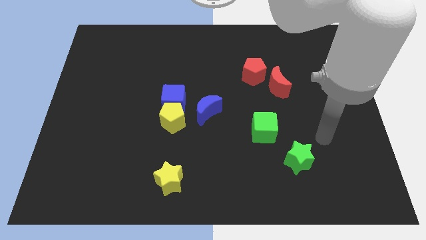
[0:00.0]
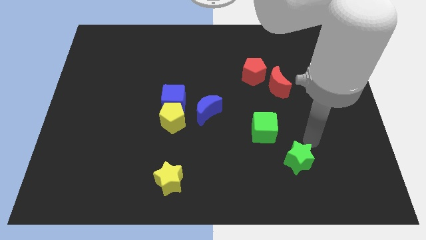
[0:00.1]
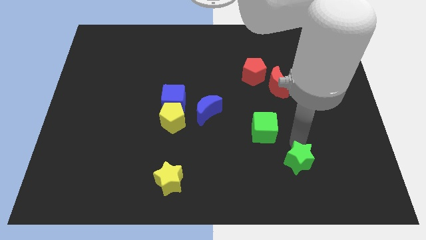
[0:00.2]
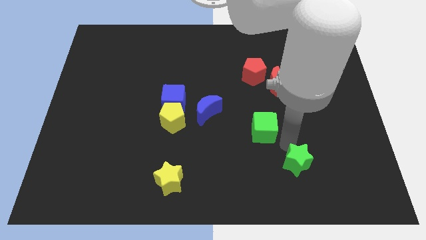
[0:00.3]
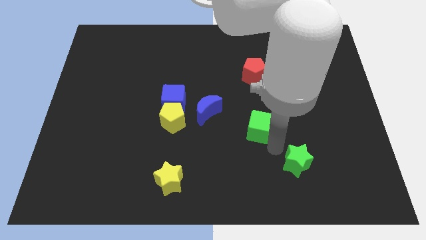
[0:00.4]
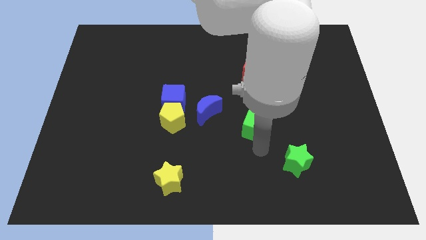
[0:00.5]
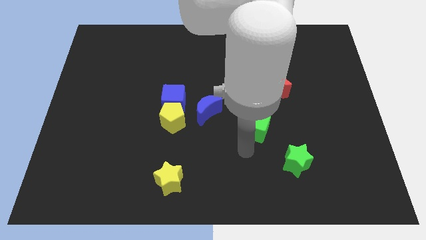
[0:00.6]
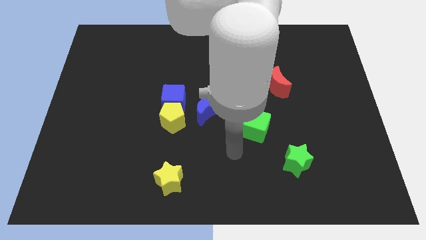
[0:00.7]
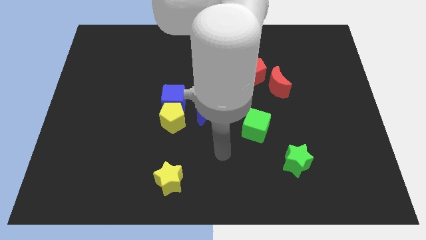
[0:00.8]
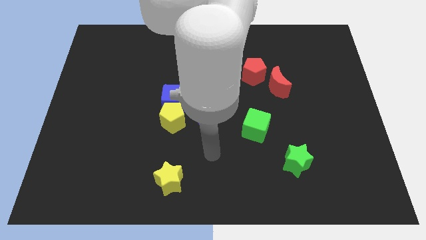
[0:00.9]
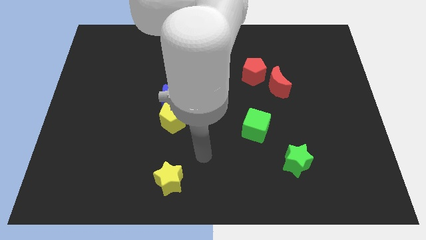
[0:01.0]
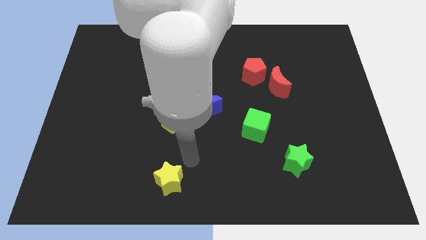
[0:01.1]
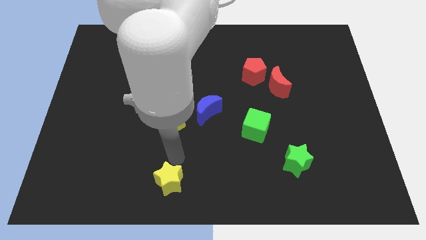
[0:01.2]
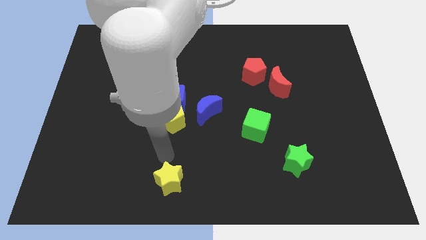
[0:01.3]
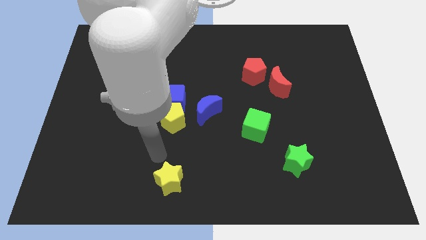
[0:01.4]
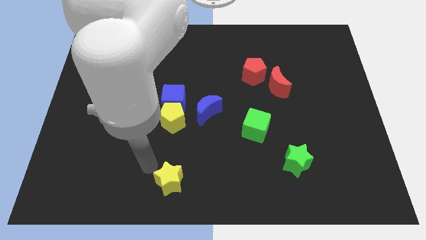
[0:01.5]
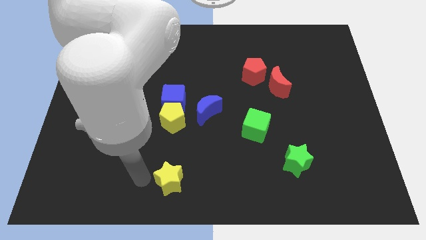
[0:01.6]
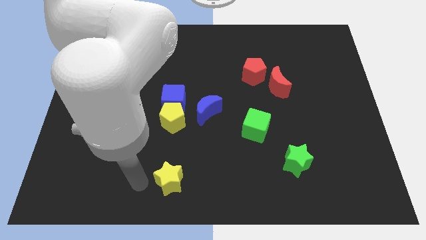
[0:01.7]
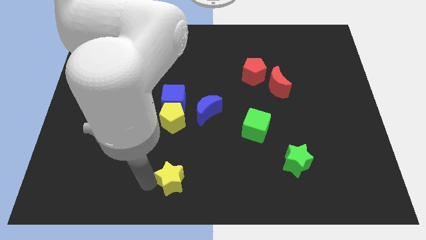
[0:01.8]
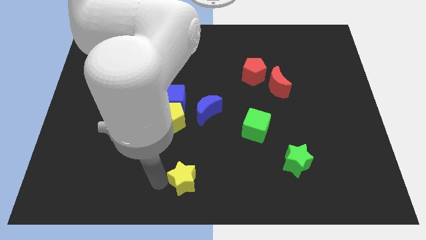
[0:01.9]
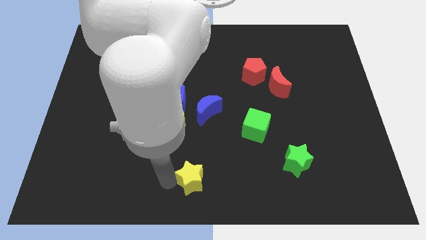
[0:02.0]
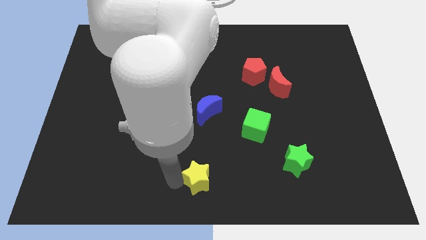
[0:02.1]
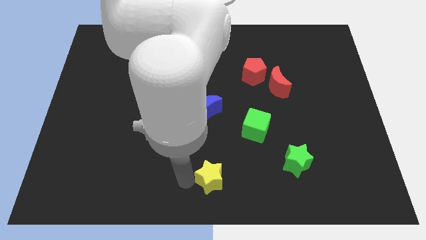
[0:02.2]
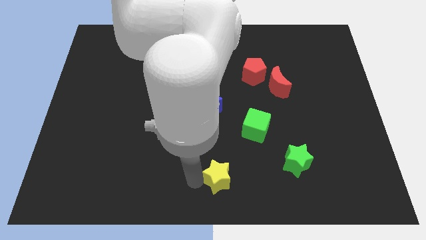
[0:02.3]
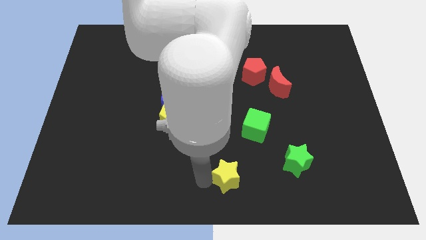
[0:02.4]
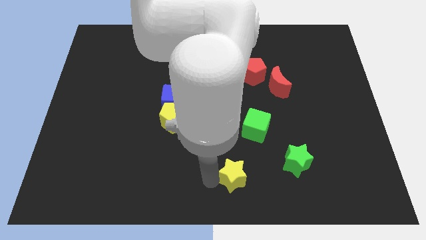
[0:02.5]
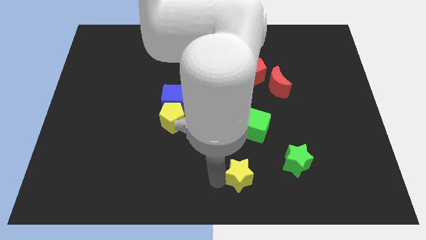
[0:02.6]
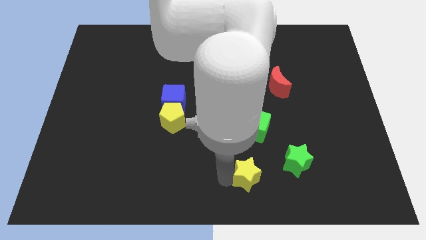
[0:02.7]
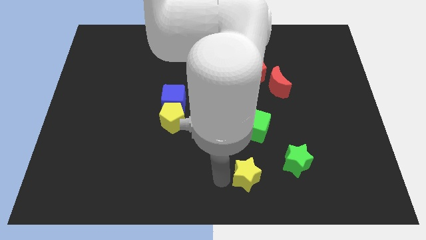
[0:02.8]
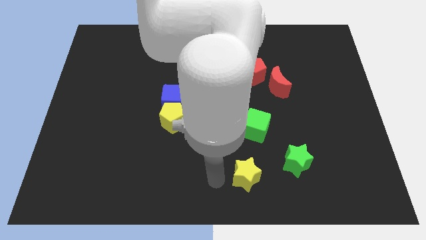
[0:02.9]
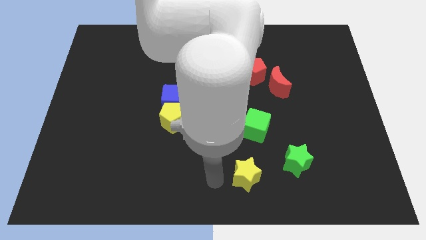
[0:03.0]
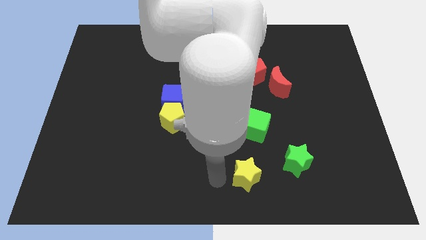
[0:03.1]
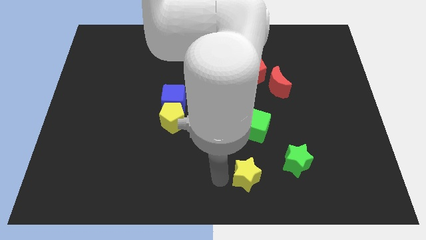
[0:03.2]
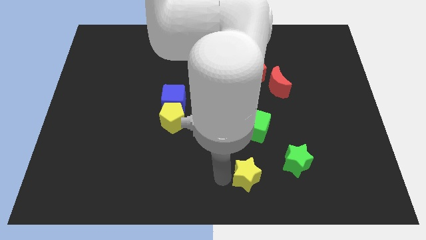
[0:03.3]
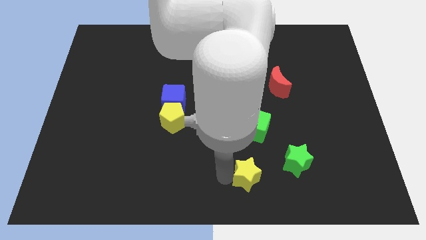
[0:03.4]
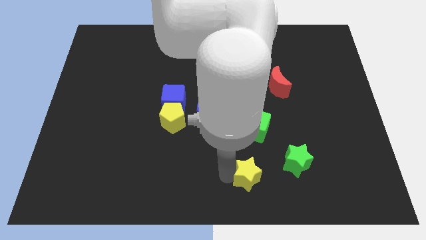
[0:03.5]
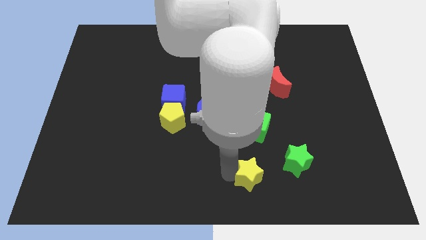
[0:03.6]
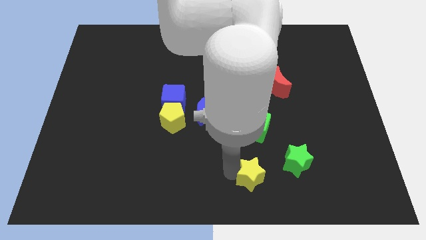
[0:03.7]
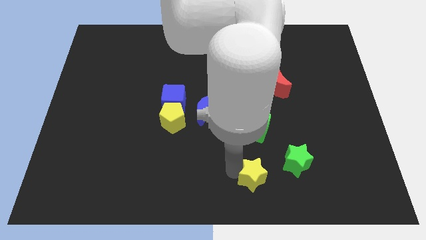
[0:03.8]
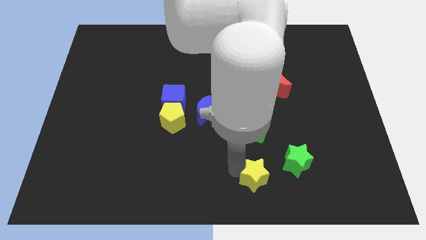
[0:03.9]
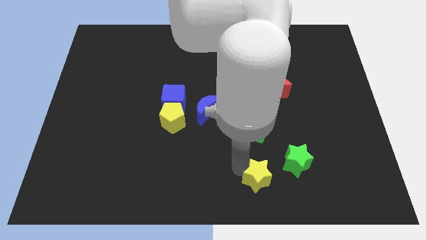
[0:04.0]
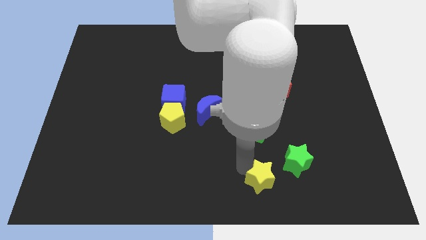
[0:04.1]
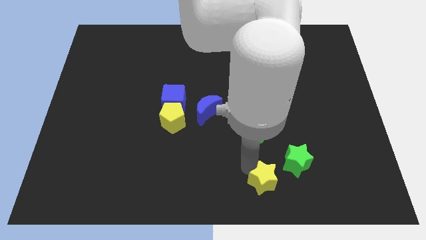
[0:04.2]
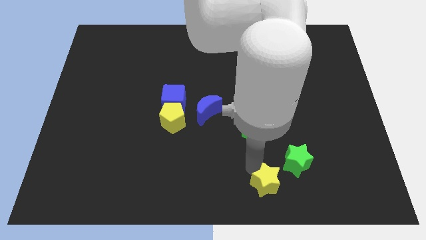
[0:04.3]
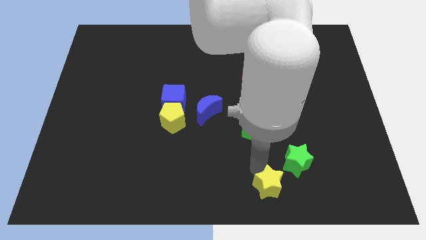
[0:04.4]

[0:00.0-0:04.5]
slide the yellow star right

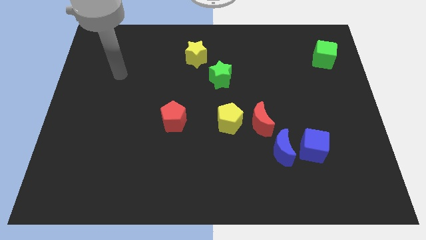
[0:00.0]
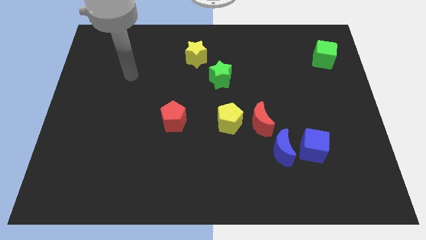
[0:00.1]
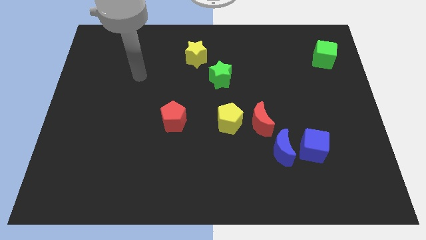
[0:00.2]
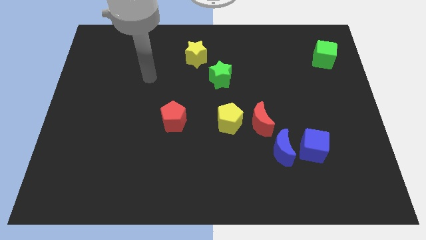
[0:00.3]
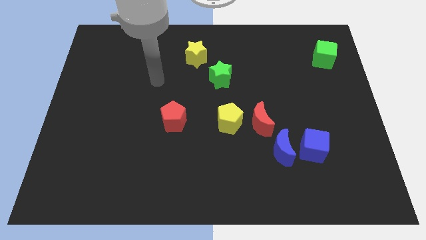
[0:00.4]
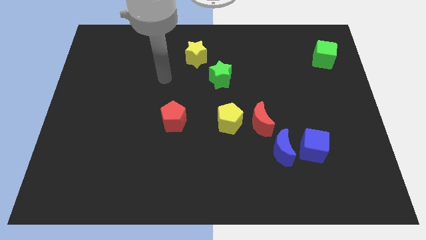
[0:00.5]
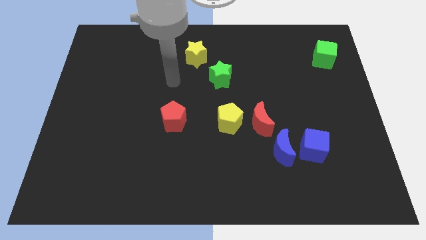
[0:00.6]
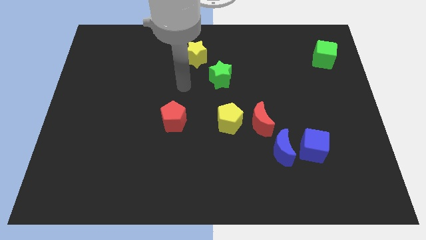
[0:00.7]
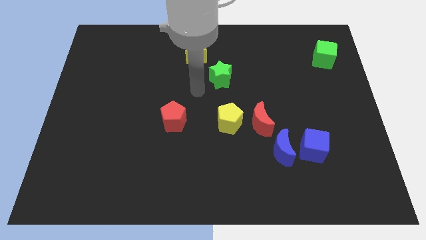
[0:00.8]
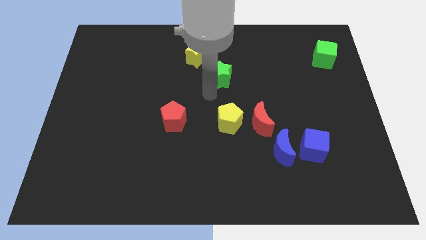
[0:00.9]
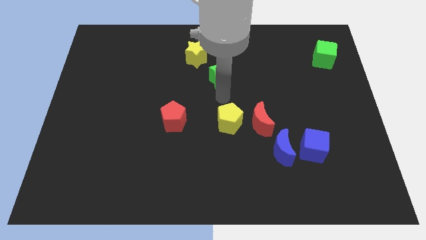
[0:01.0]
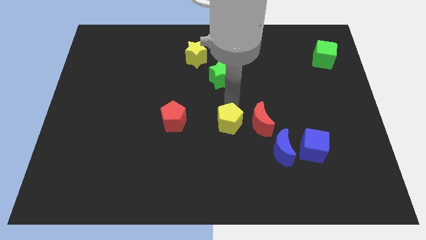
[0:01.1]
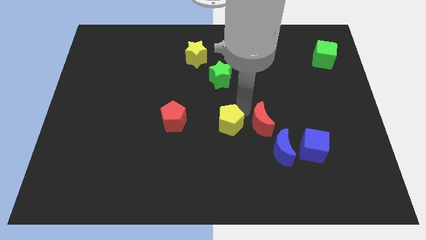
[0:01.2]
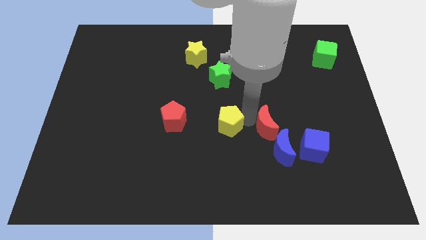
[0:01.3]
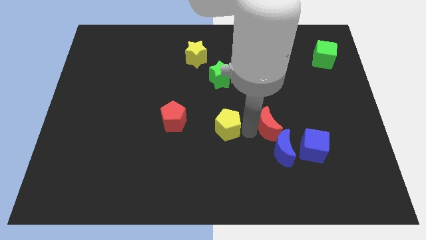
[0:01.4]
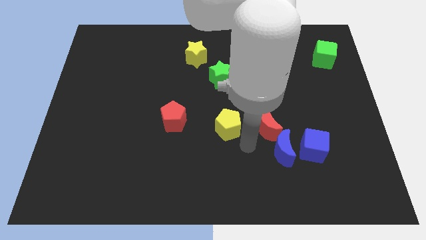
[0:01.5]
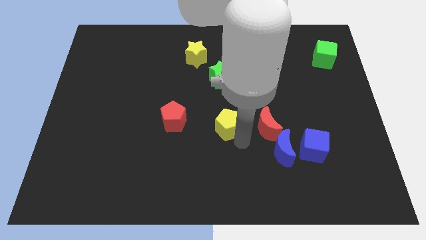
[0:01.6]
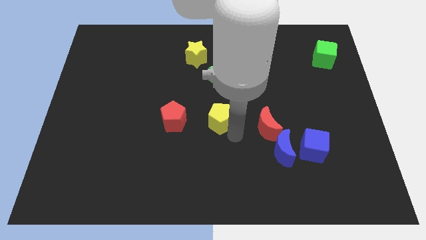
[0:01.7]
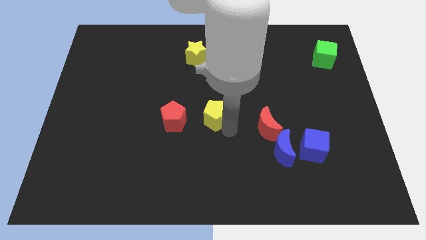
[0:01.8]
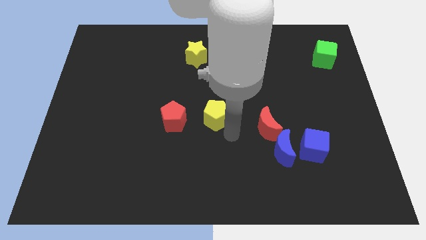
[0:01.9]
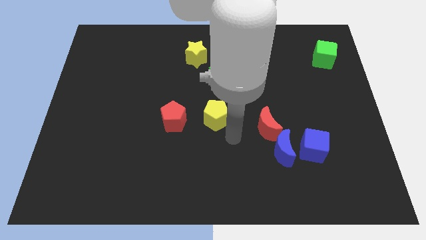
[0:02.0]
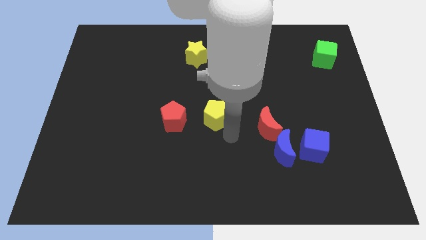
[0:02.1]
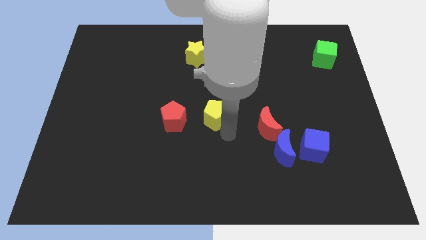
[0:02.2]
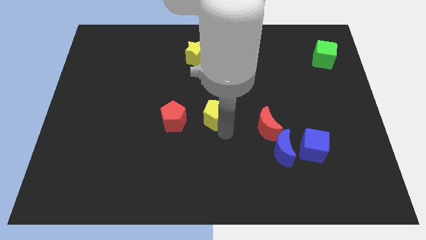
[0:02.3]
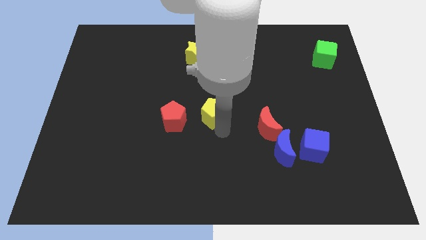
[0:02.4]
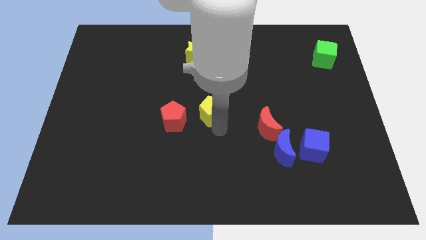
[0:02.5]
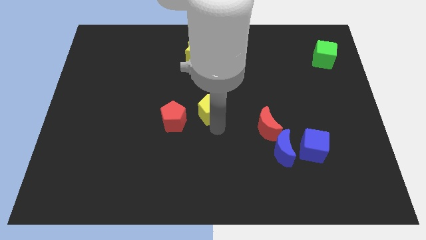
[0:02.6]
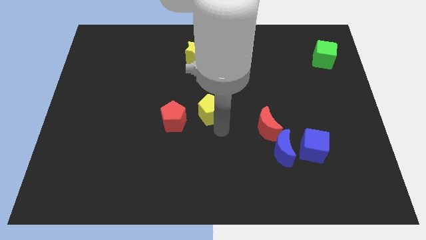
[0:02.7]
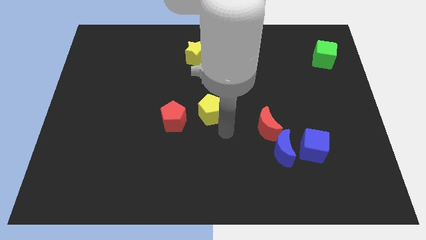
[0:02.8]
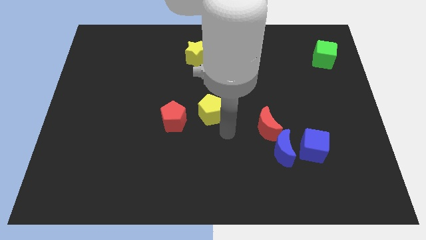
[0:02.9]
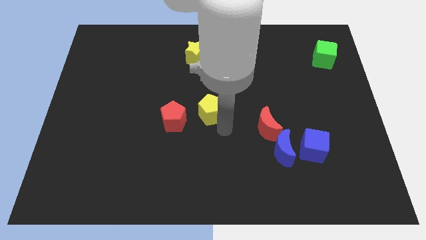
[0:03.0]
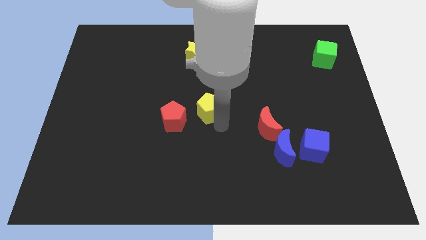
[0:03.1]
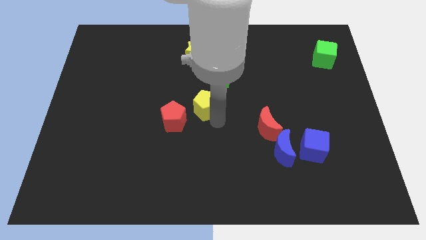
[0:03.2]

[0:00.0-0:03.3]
push the yellow pentagon slightly upwards and left

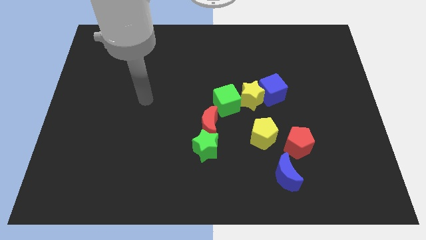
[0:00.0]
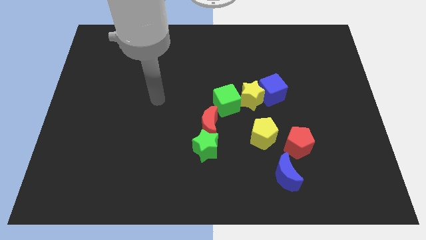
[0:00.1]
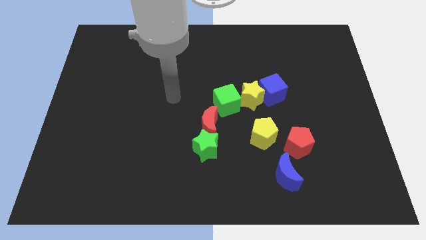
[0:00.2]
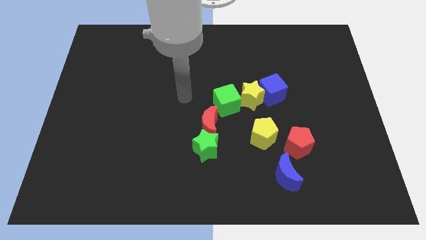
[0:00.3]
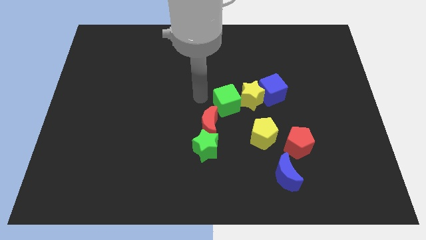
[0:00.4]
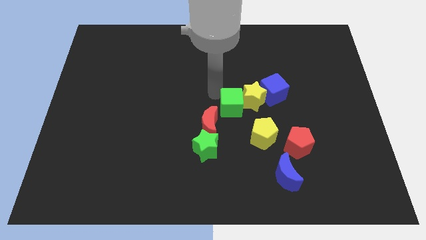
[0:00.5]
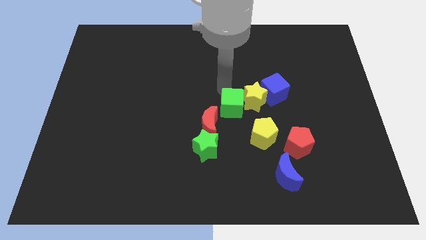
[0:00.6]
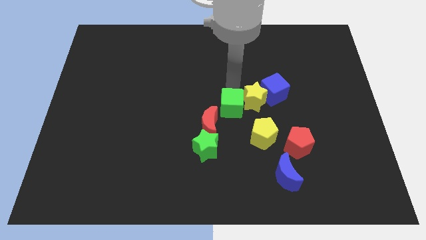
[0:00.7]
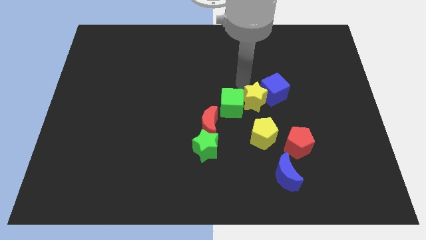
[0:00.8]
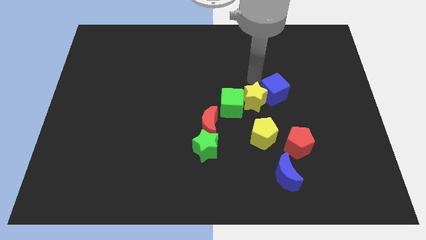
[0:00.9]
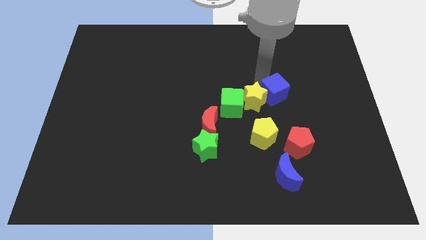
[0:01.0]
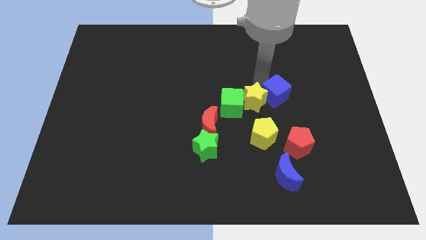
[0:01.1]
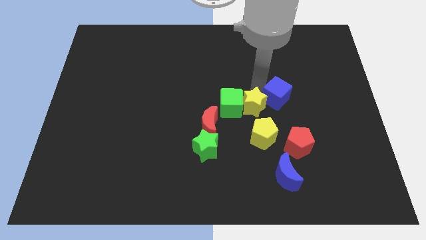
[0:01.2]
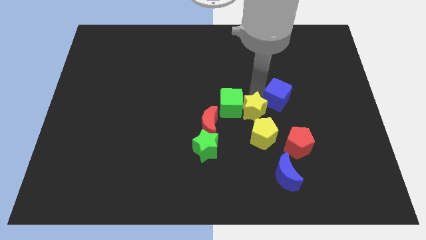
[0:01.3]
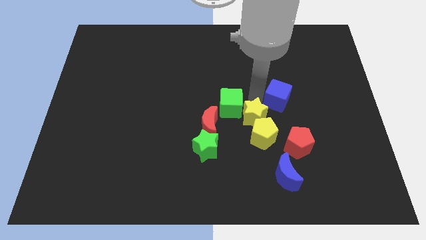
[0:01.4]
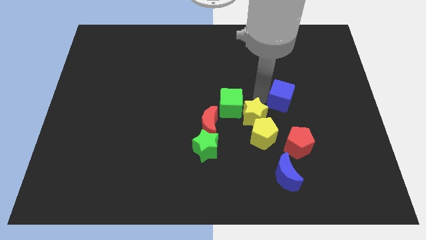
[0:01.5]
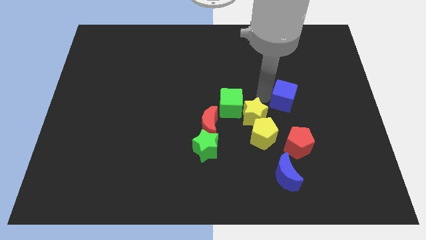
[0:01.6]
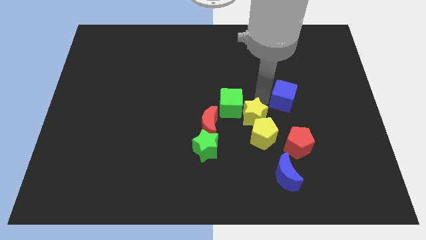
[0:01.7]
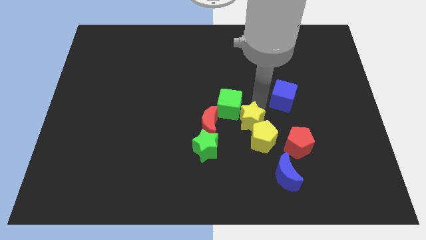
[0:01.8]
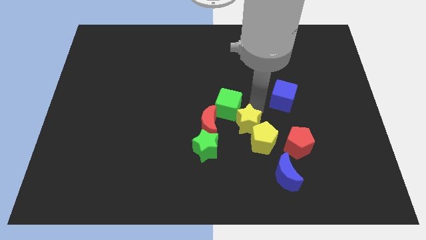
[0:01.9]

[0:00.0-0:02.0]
slightly push the yellow star down
